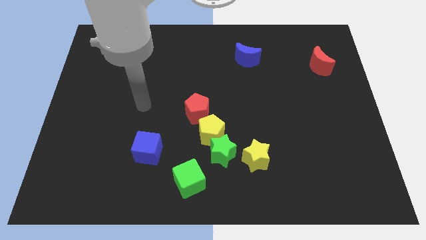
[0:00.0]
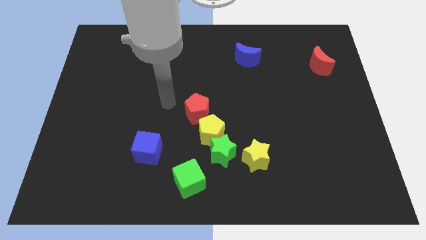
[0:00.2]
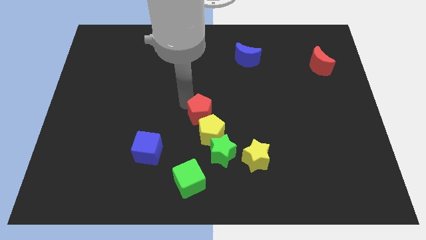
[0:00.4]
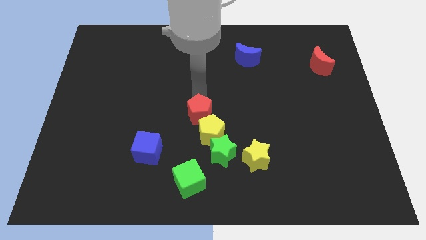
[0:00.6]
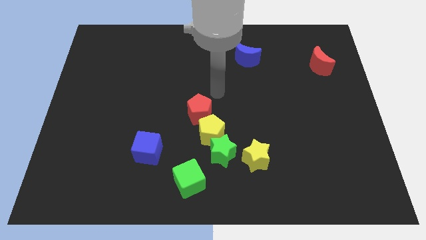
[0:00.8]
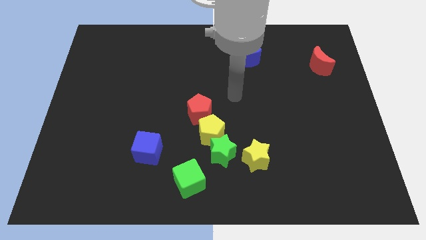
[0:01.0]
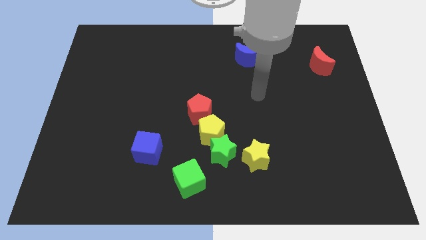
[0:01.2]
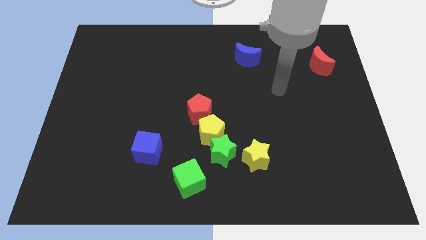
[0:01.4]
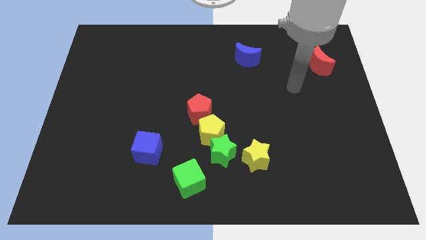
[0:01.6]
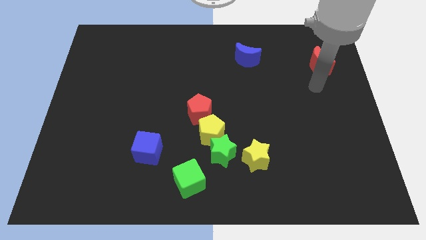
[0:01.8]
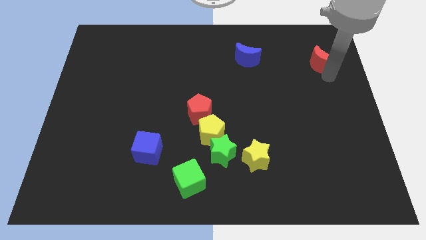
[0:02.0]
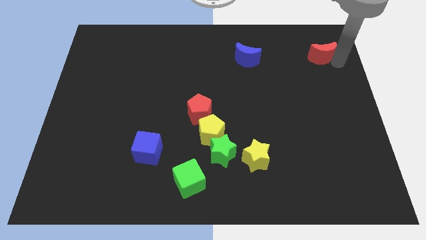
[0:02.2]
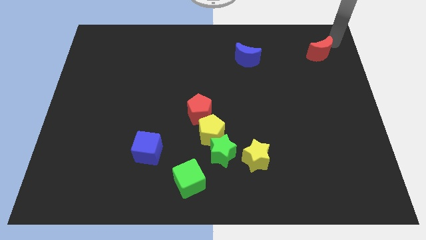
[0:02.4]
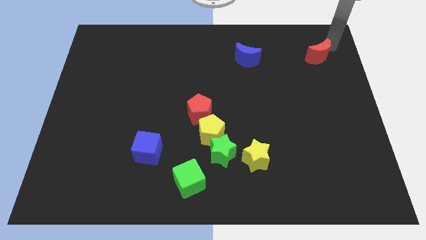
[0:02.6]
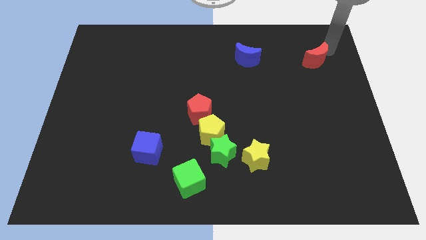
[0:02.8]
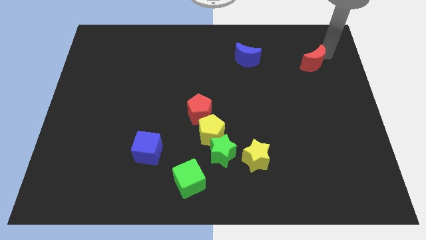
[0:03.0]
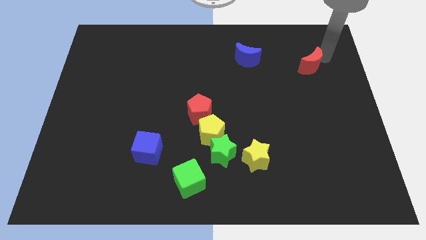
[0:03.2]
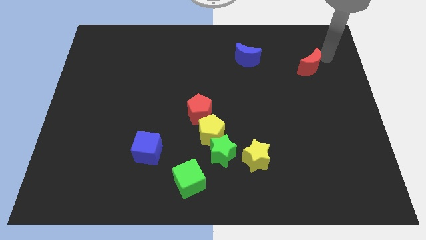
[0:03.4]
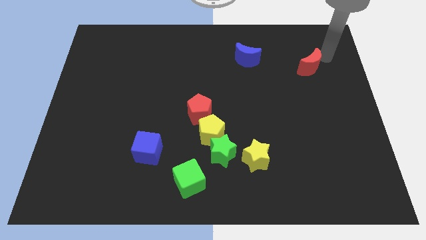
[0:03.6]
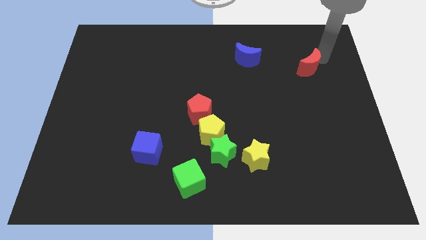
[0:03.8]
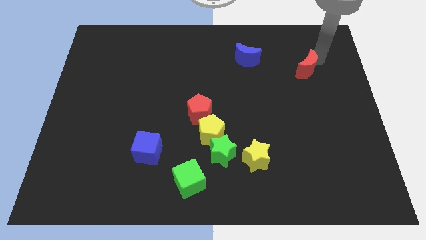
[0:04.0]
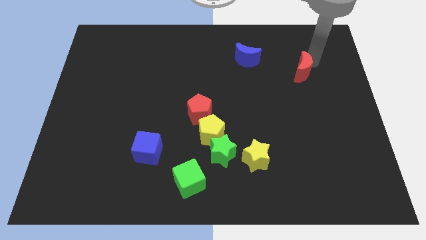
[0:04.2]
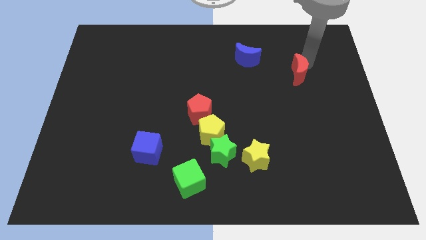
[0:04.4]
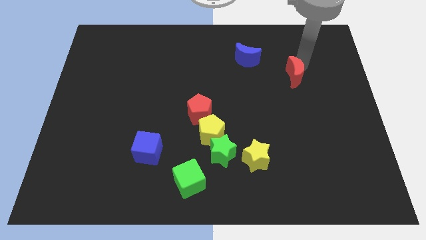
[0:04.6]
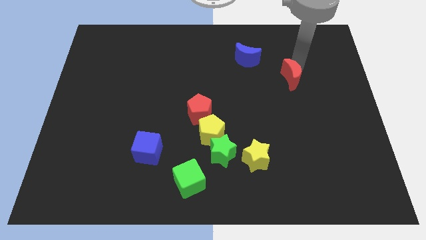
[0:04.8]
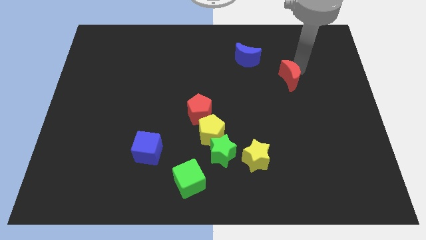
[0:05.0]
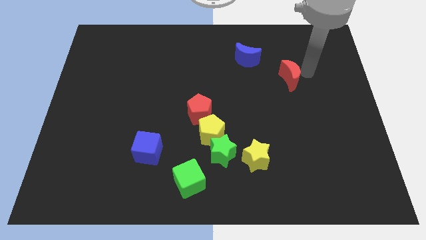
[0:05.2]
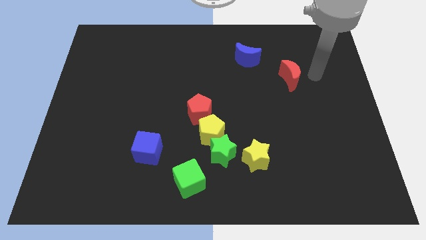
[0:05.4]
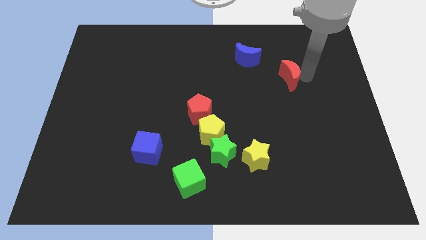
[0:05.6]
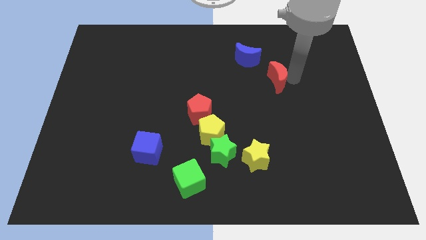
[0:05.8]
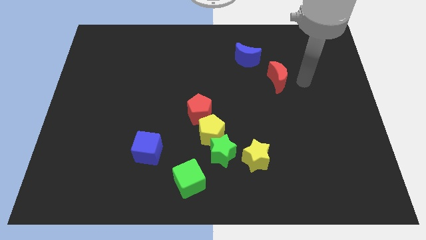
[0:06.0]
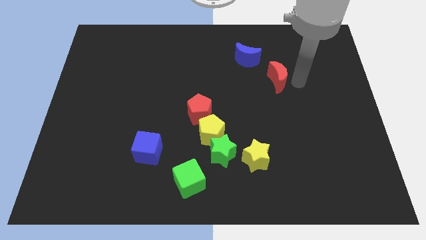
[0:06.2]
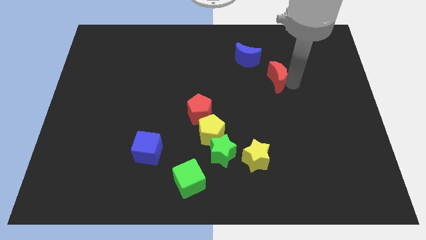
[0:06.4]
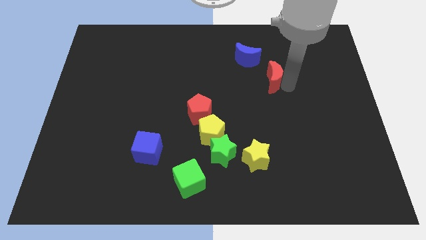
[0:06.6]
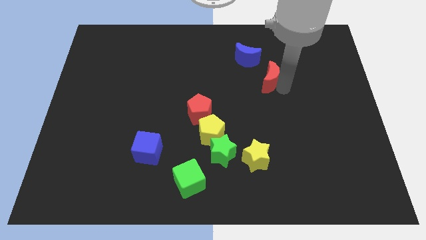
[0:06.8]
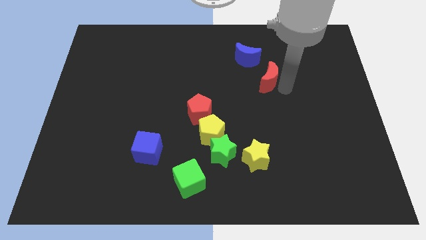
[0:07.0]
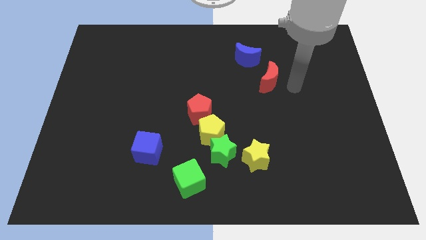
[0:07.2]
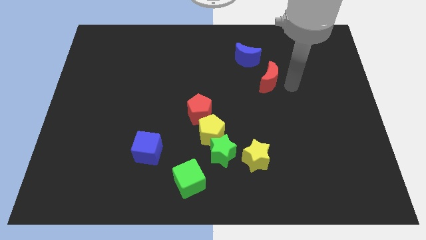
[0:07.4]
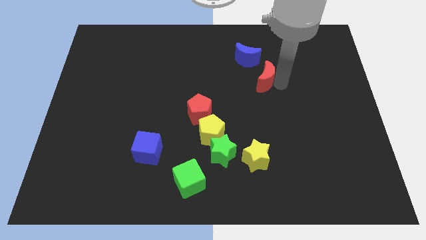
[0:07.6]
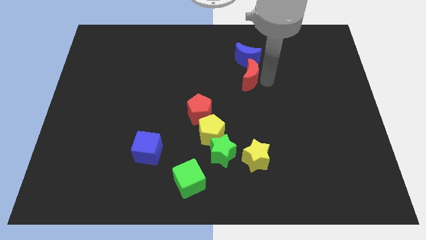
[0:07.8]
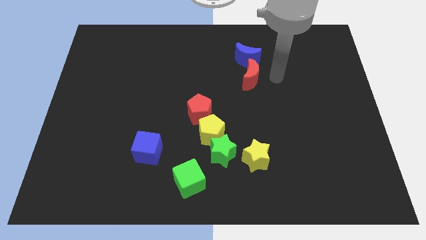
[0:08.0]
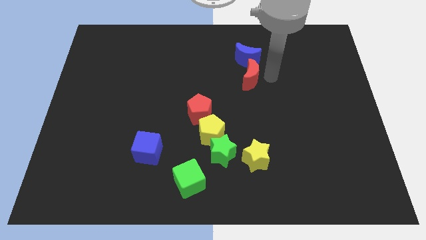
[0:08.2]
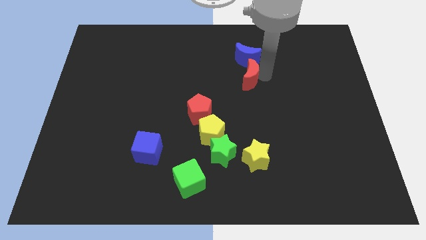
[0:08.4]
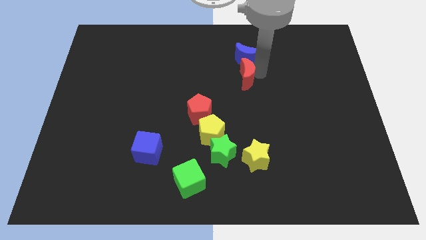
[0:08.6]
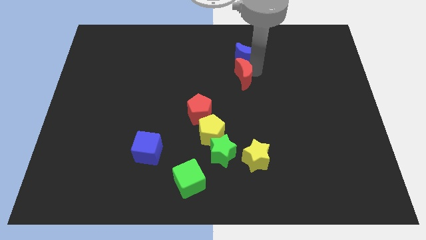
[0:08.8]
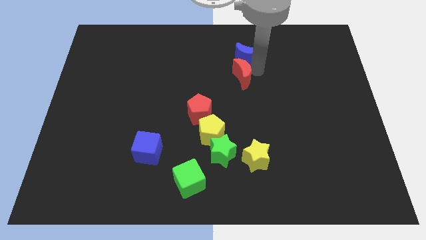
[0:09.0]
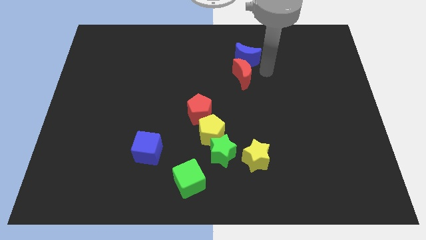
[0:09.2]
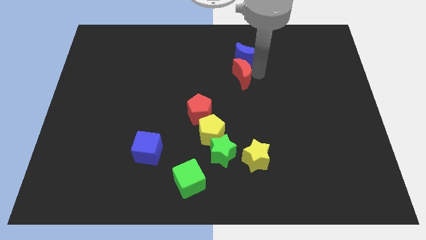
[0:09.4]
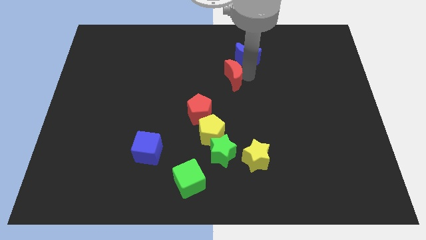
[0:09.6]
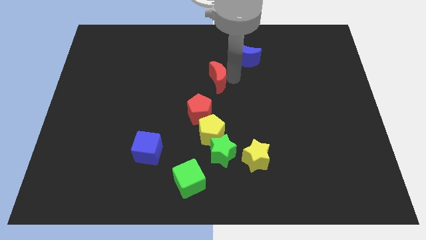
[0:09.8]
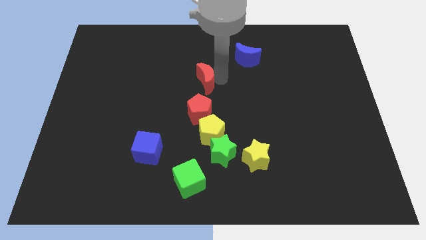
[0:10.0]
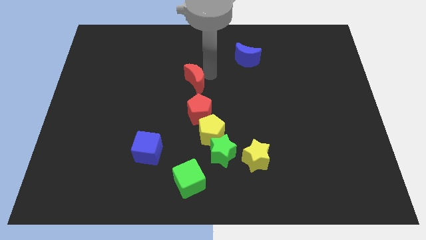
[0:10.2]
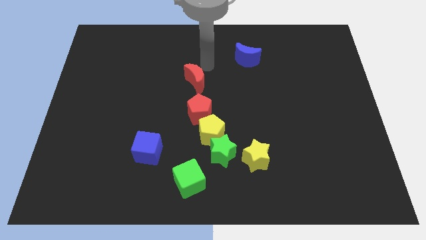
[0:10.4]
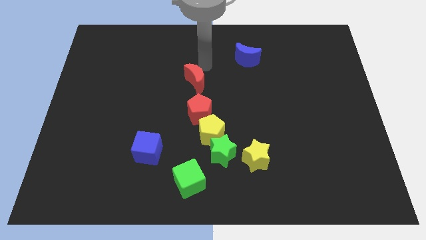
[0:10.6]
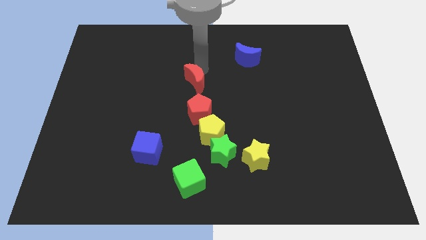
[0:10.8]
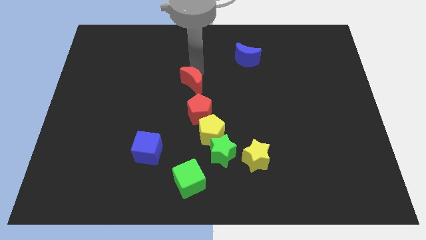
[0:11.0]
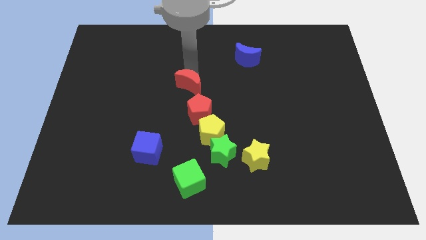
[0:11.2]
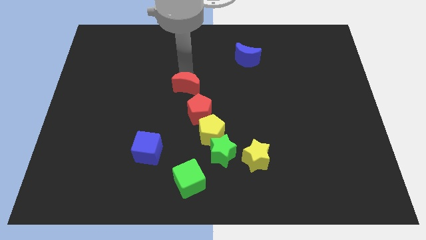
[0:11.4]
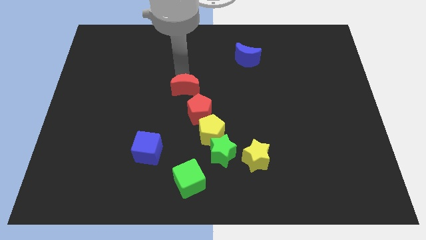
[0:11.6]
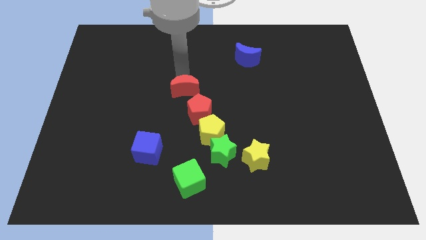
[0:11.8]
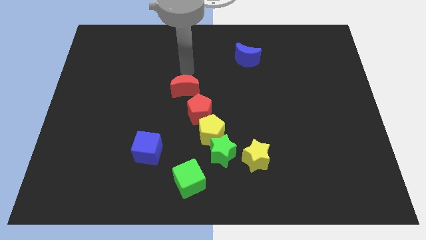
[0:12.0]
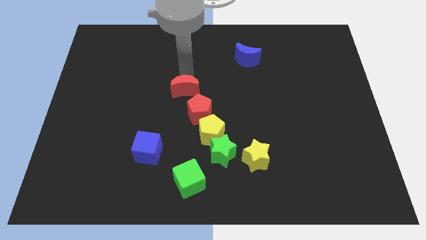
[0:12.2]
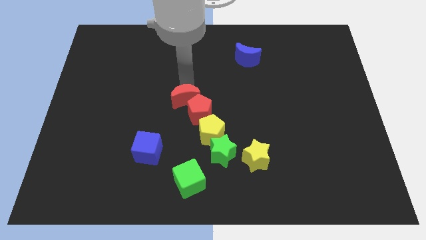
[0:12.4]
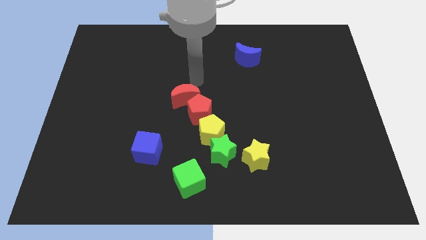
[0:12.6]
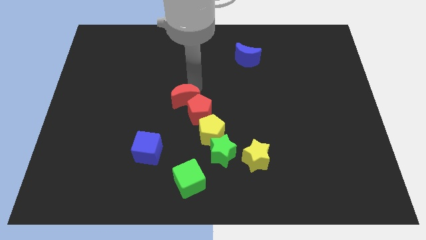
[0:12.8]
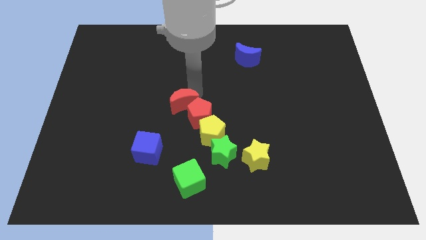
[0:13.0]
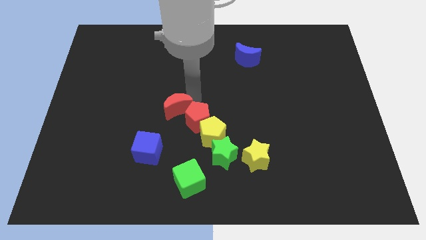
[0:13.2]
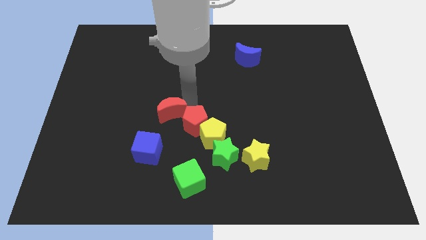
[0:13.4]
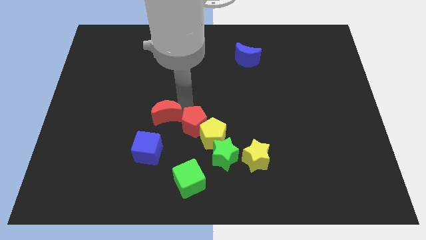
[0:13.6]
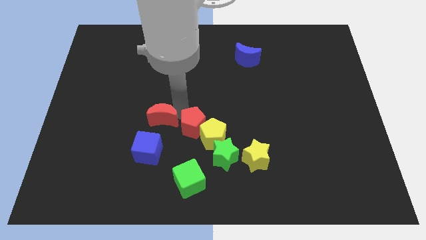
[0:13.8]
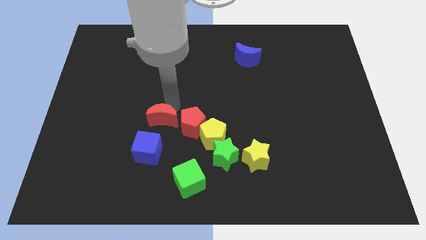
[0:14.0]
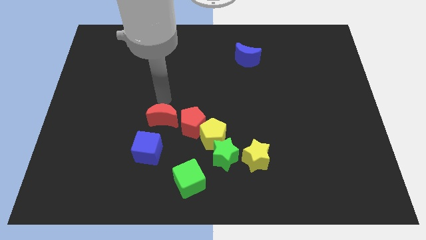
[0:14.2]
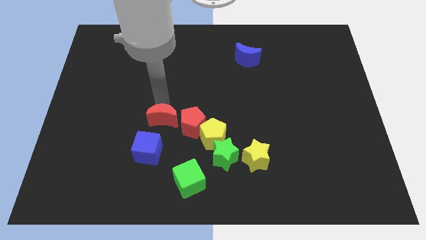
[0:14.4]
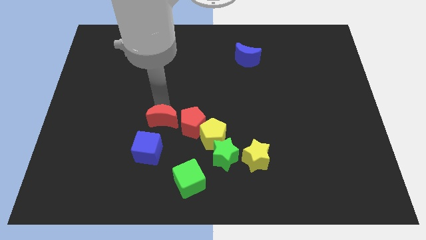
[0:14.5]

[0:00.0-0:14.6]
put the red moon to the left side of the yellow pentagon
